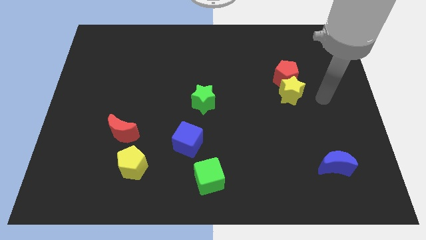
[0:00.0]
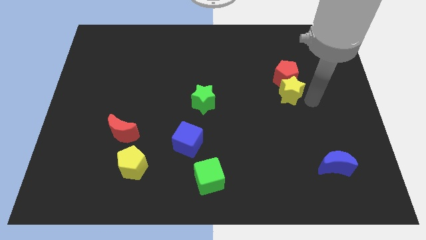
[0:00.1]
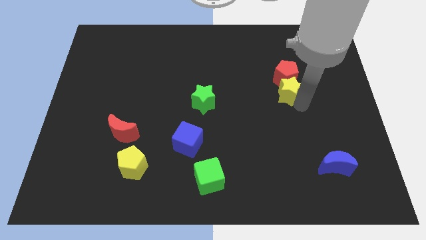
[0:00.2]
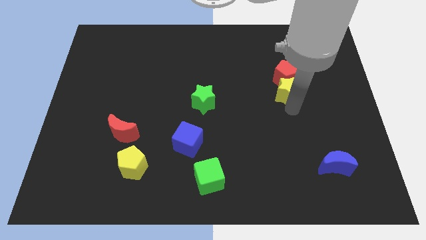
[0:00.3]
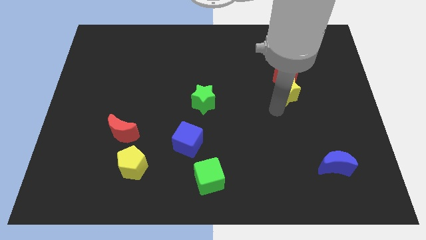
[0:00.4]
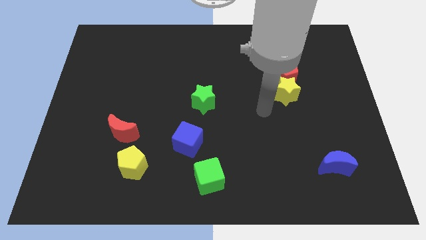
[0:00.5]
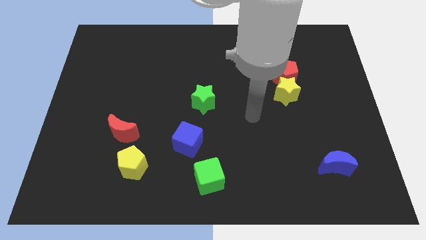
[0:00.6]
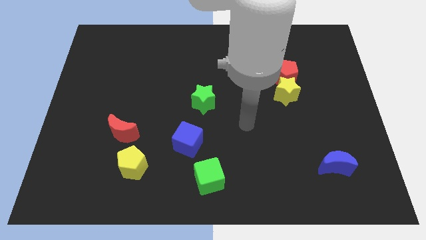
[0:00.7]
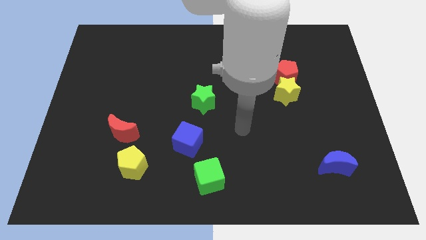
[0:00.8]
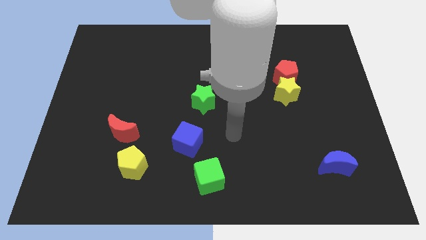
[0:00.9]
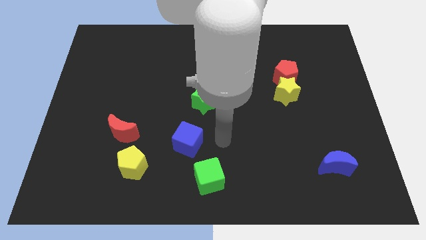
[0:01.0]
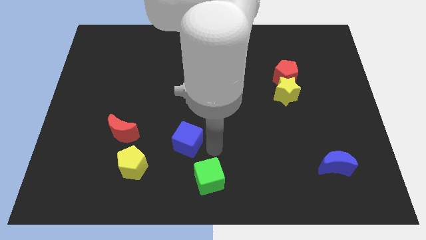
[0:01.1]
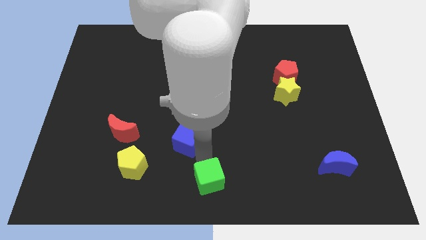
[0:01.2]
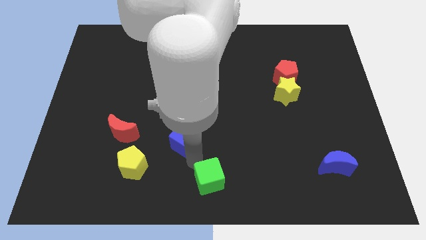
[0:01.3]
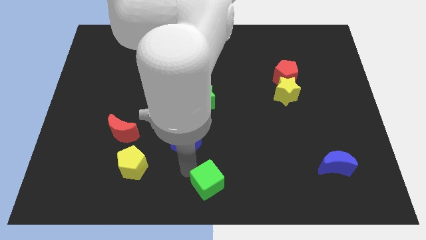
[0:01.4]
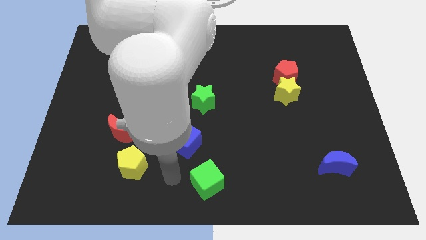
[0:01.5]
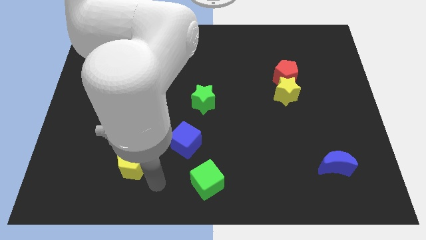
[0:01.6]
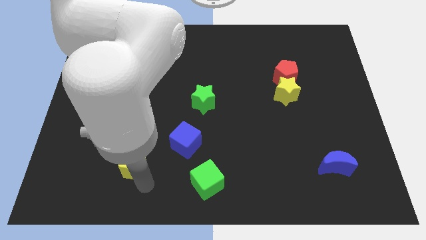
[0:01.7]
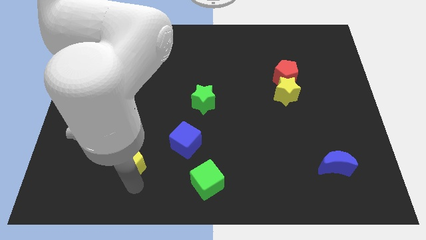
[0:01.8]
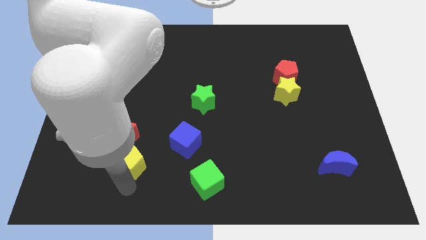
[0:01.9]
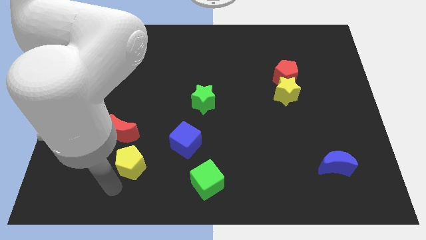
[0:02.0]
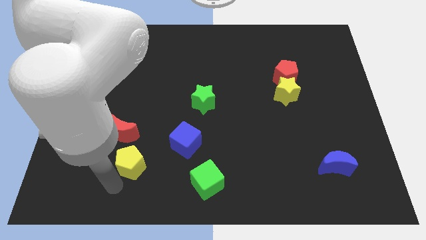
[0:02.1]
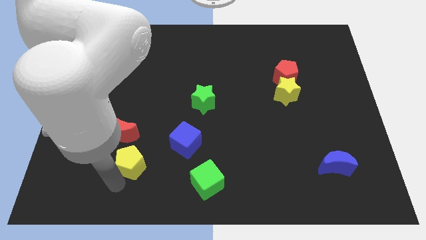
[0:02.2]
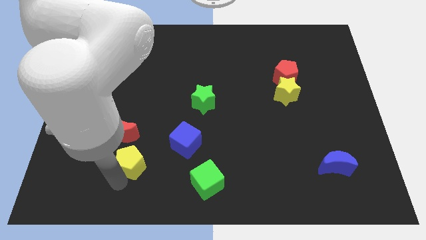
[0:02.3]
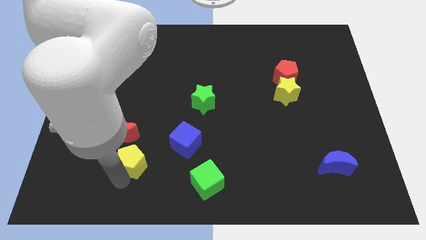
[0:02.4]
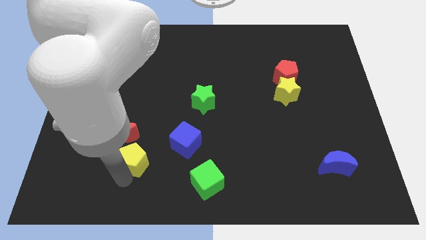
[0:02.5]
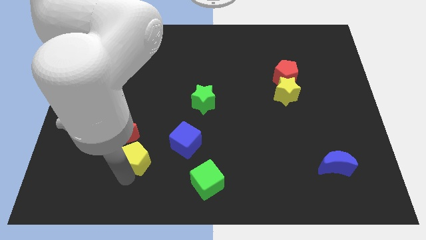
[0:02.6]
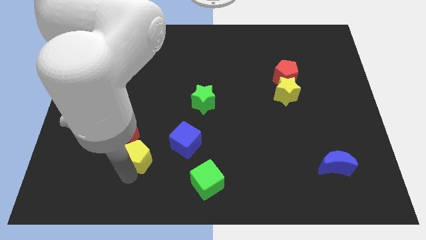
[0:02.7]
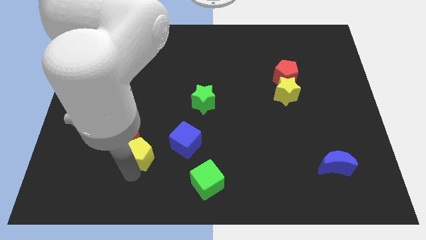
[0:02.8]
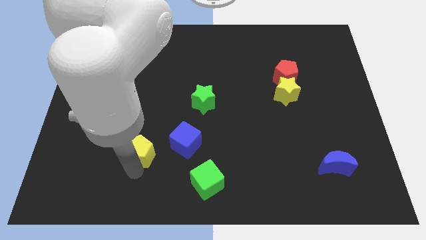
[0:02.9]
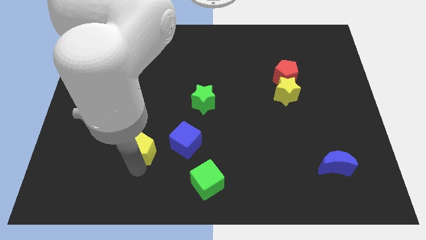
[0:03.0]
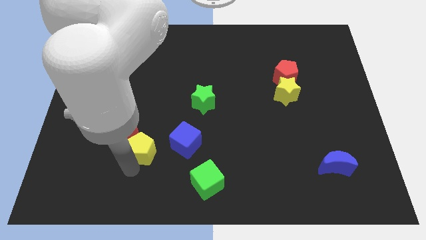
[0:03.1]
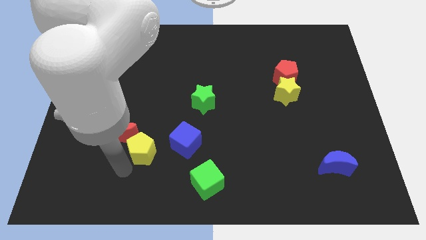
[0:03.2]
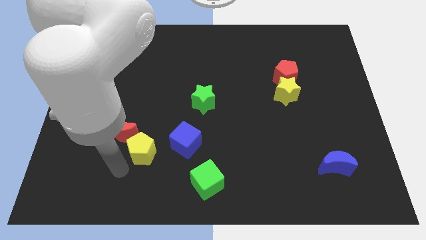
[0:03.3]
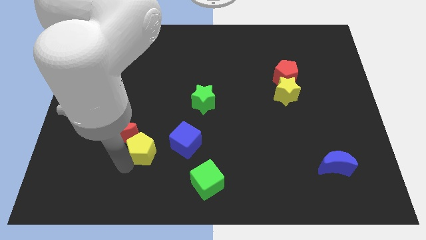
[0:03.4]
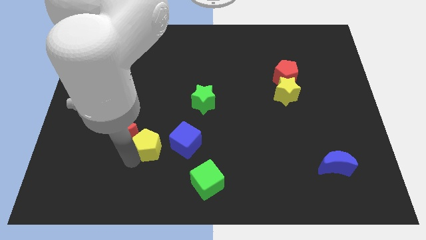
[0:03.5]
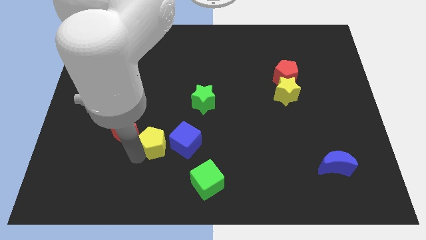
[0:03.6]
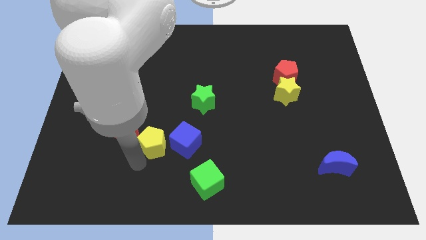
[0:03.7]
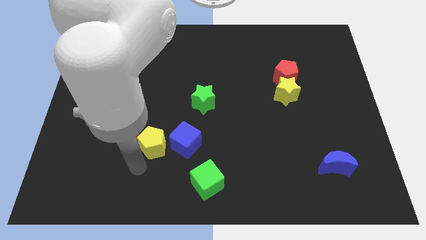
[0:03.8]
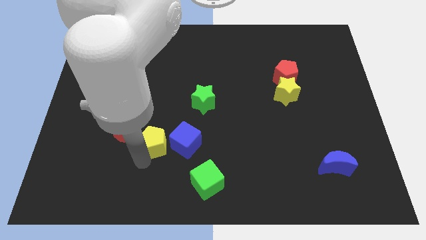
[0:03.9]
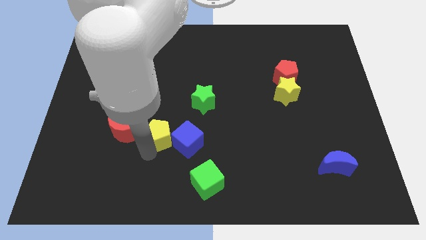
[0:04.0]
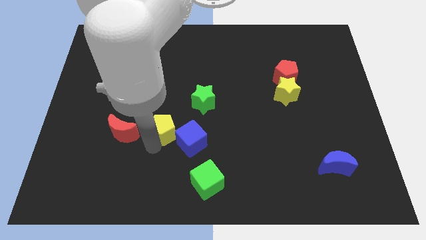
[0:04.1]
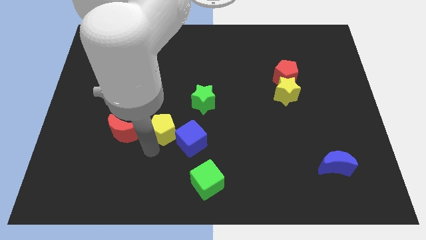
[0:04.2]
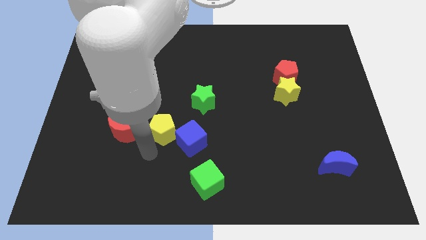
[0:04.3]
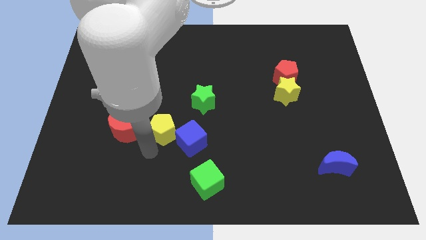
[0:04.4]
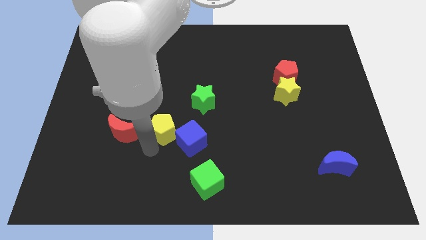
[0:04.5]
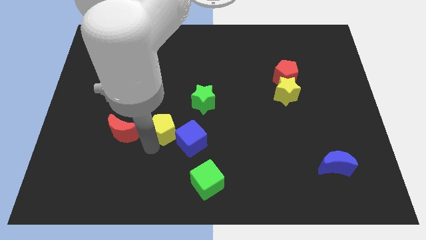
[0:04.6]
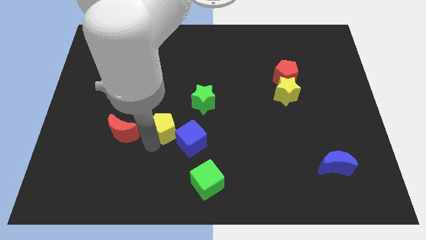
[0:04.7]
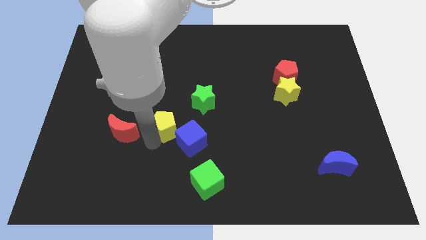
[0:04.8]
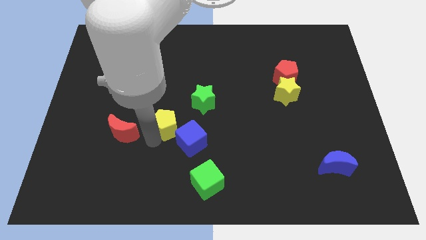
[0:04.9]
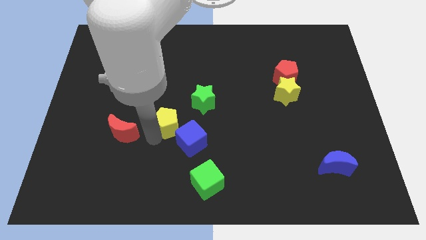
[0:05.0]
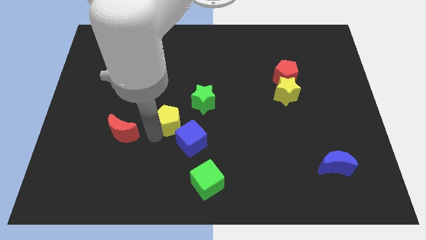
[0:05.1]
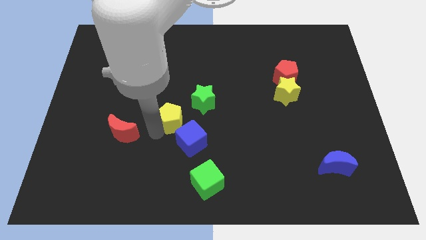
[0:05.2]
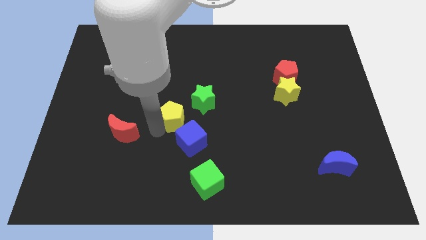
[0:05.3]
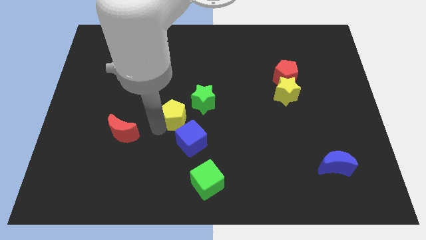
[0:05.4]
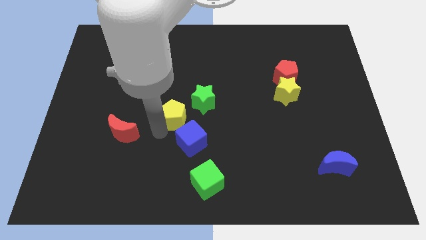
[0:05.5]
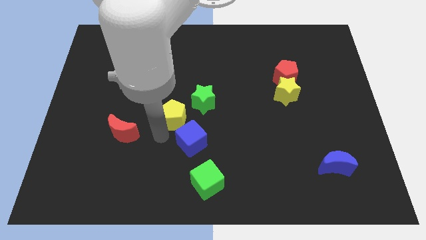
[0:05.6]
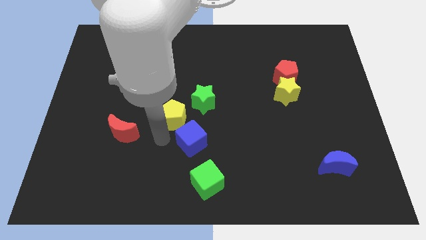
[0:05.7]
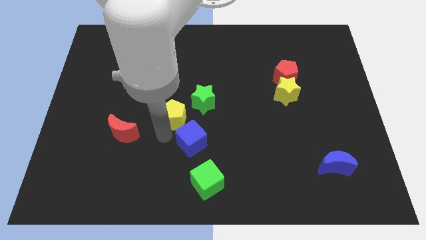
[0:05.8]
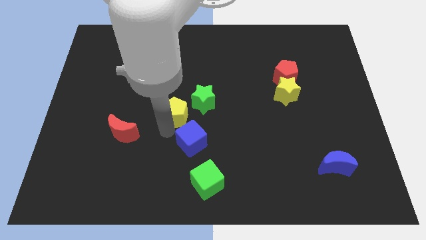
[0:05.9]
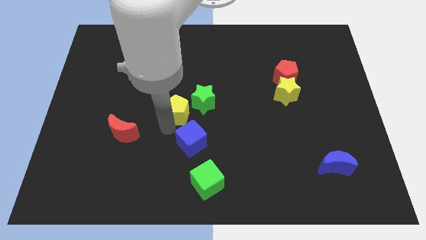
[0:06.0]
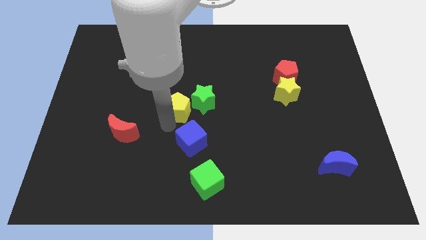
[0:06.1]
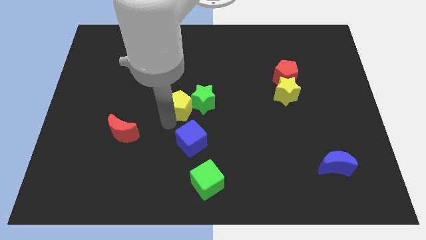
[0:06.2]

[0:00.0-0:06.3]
move the yellow pentagon close to the green star
